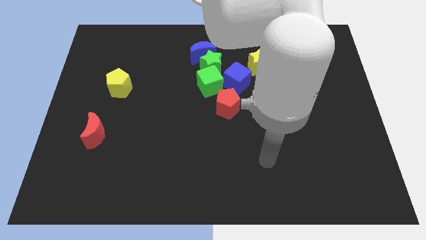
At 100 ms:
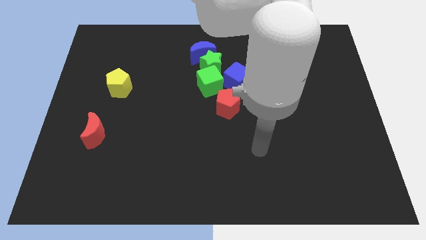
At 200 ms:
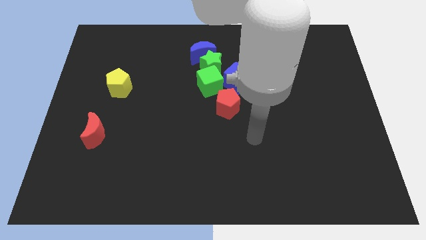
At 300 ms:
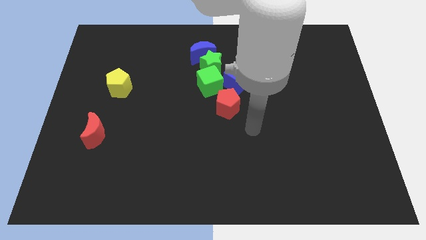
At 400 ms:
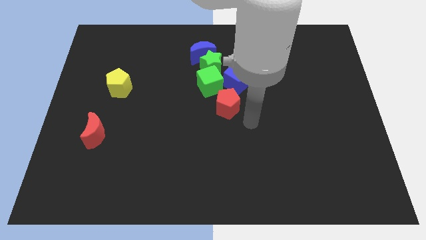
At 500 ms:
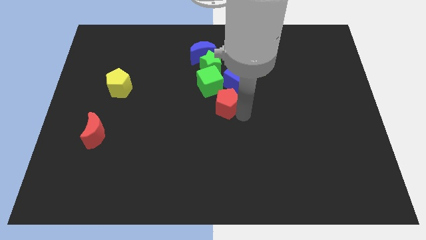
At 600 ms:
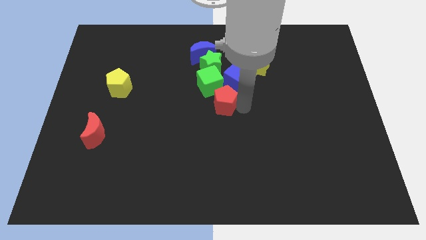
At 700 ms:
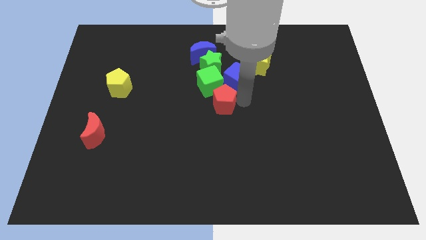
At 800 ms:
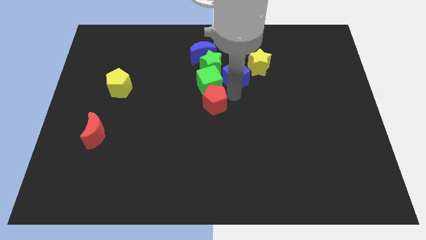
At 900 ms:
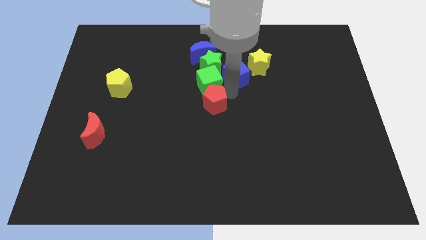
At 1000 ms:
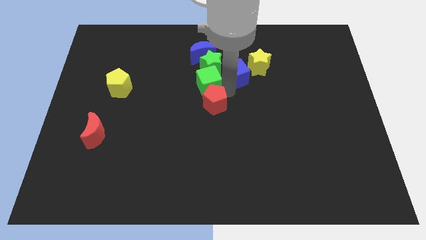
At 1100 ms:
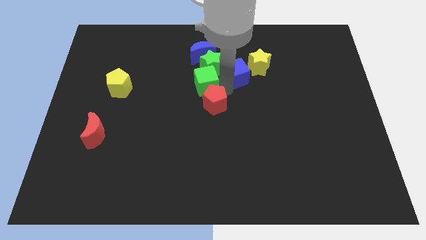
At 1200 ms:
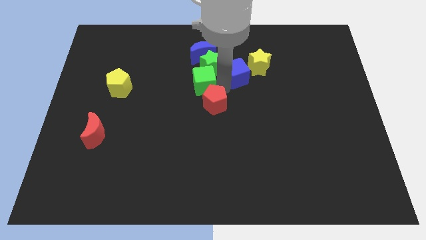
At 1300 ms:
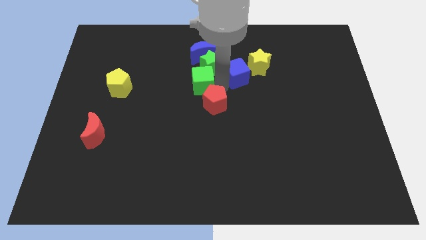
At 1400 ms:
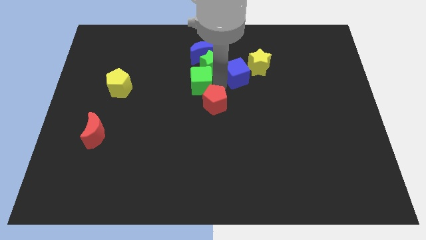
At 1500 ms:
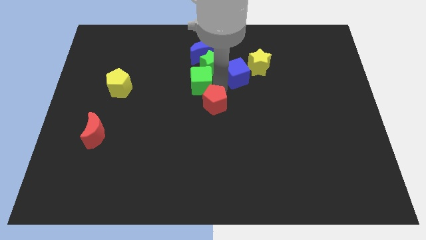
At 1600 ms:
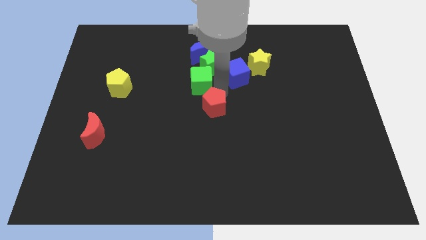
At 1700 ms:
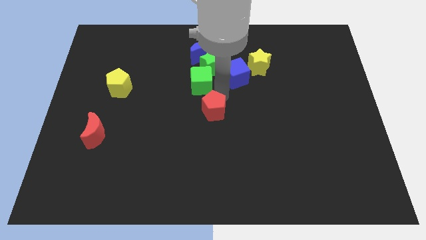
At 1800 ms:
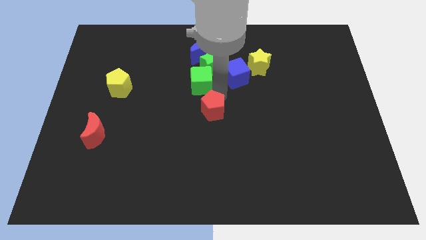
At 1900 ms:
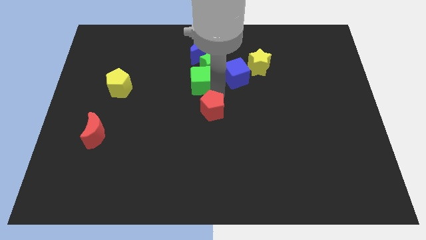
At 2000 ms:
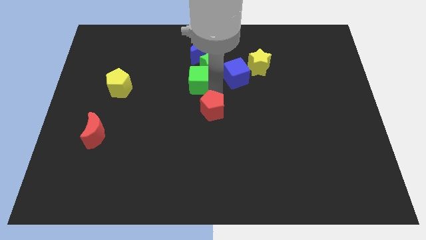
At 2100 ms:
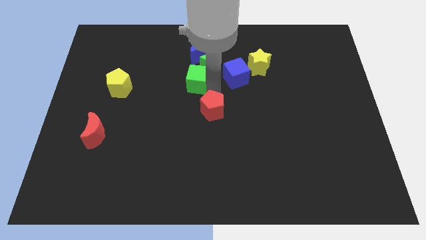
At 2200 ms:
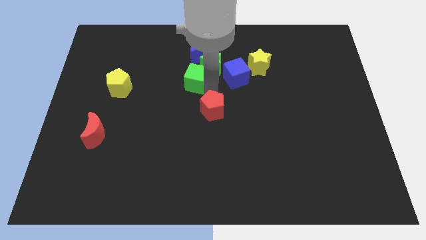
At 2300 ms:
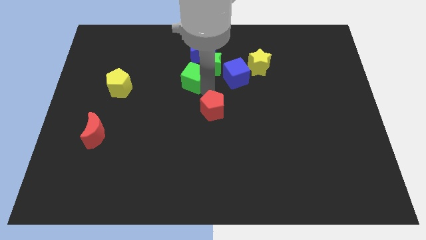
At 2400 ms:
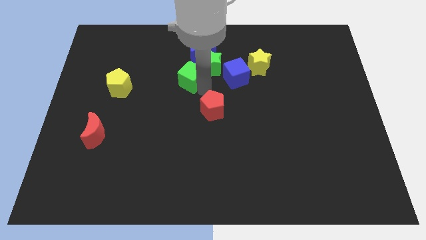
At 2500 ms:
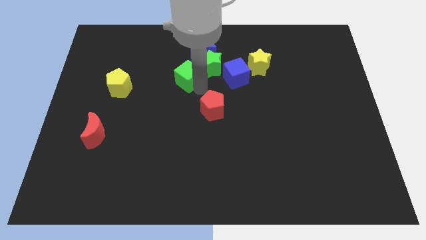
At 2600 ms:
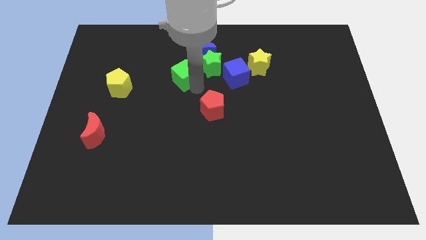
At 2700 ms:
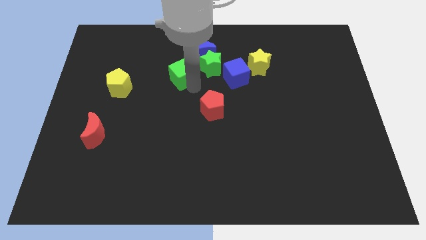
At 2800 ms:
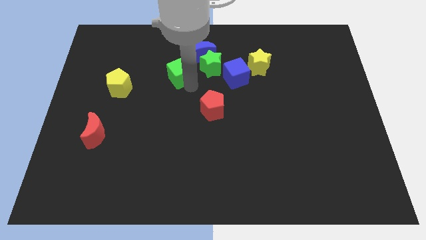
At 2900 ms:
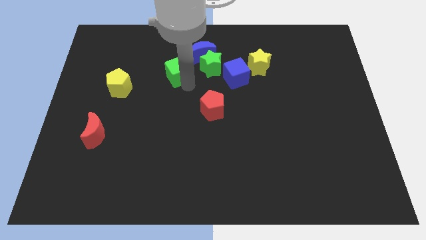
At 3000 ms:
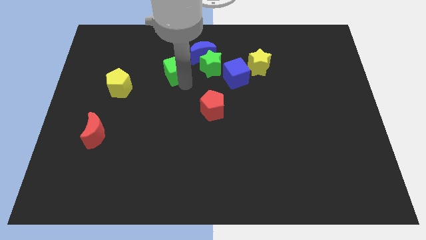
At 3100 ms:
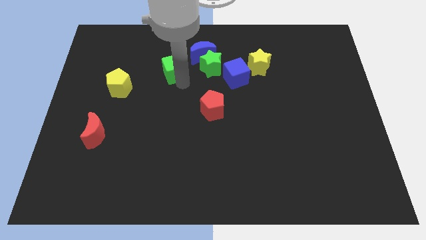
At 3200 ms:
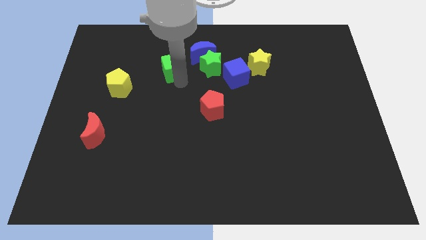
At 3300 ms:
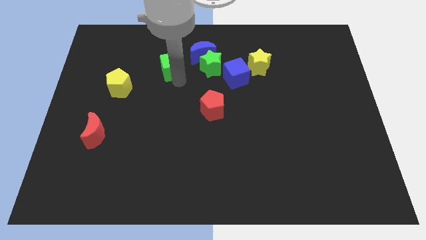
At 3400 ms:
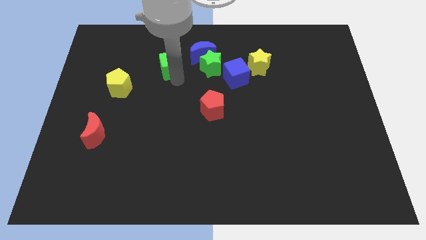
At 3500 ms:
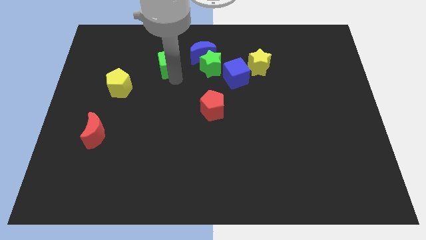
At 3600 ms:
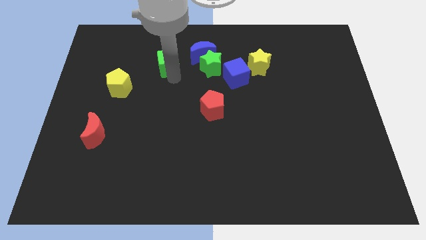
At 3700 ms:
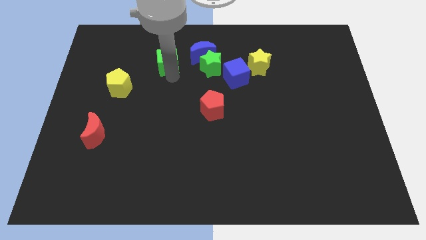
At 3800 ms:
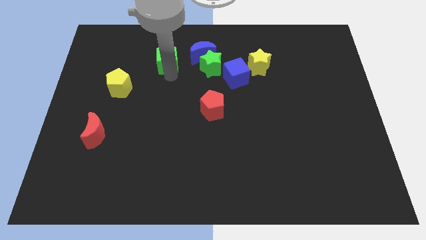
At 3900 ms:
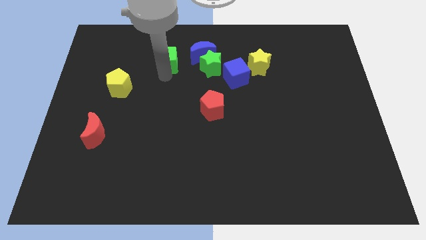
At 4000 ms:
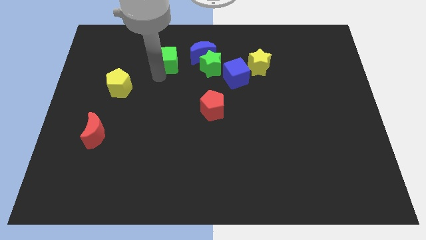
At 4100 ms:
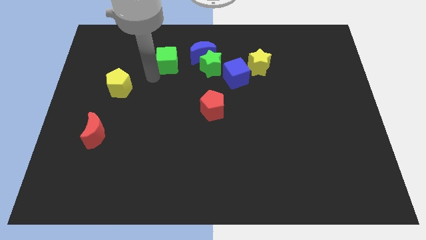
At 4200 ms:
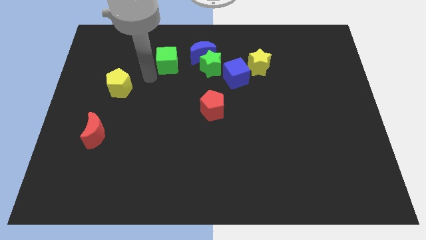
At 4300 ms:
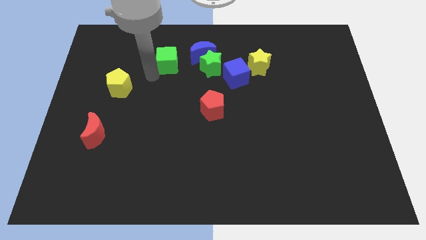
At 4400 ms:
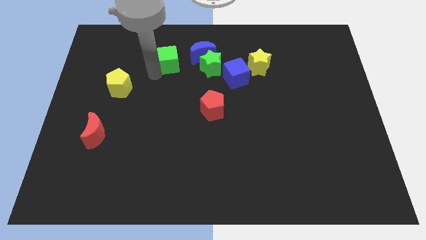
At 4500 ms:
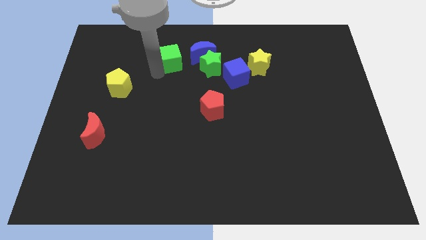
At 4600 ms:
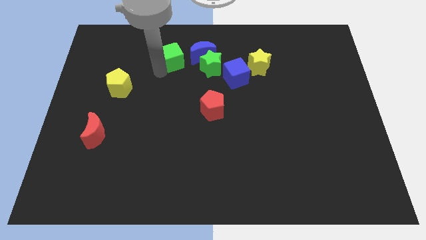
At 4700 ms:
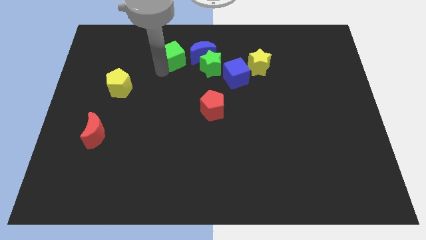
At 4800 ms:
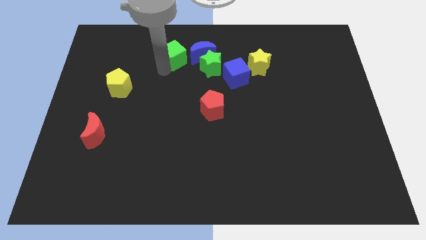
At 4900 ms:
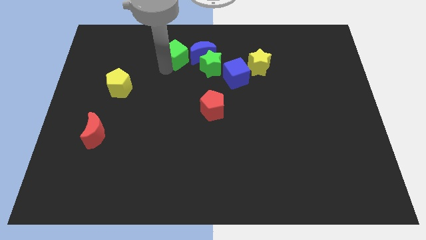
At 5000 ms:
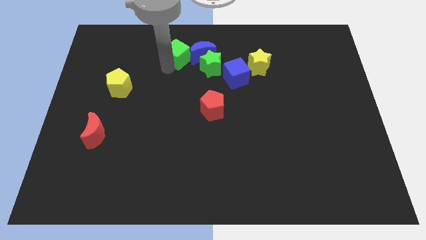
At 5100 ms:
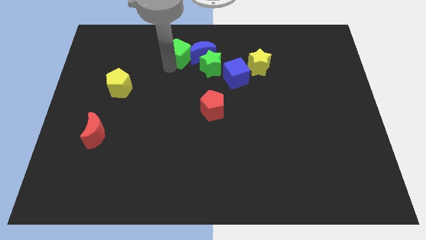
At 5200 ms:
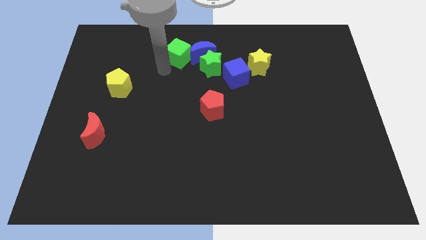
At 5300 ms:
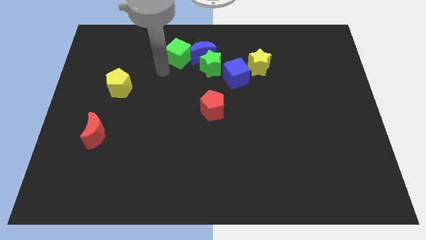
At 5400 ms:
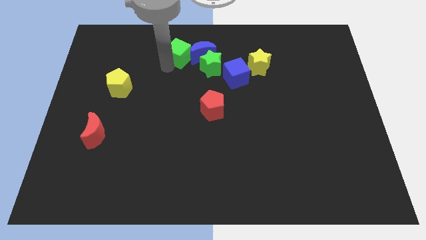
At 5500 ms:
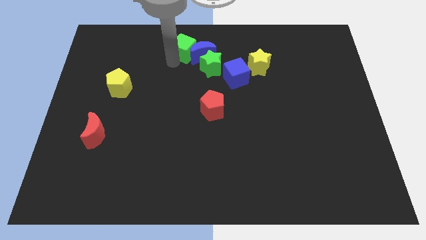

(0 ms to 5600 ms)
push the green cube to the towards your base

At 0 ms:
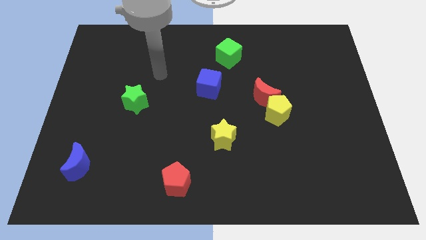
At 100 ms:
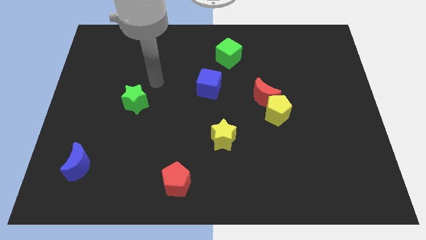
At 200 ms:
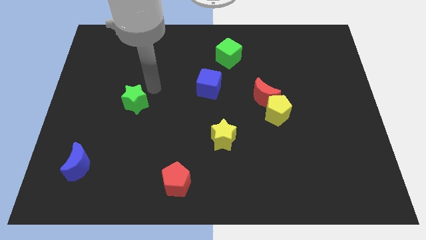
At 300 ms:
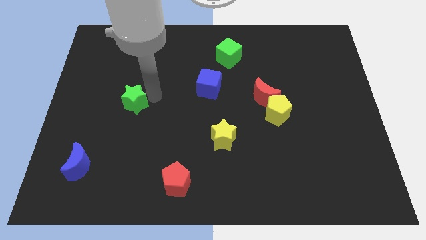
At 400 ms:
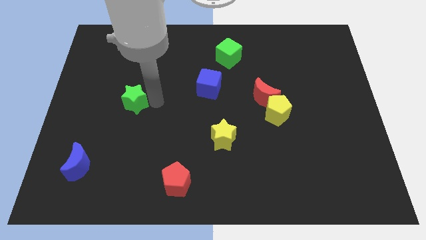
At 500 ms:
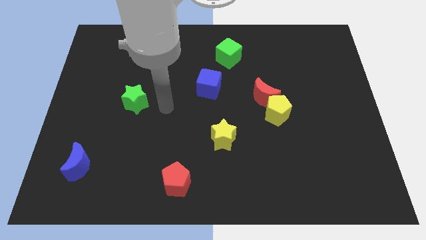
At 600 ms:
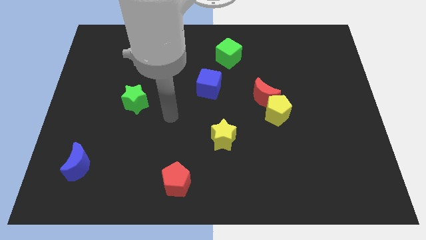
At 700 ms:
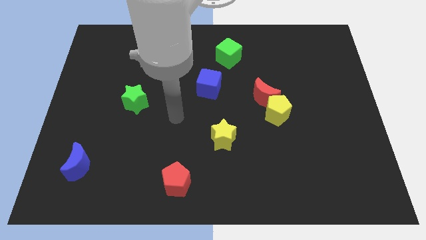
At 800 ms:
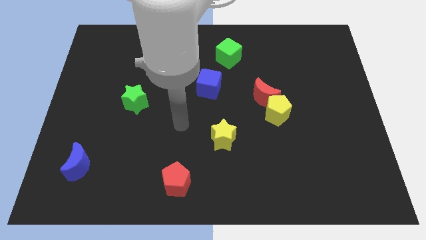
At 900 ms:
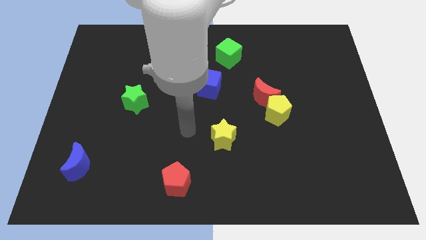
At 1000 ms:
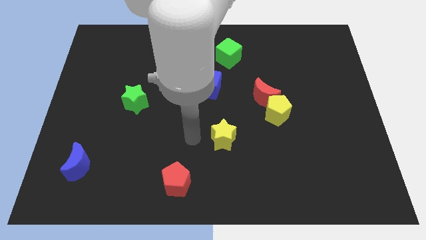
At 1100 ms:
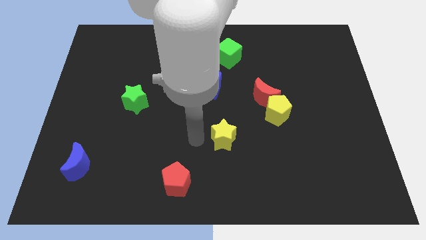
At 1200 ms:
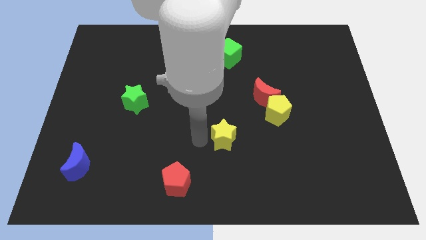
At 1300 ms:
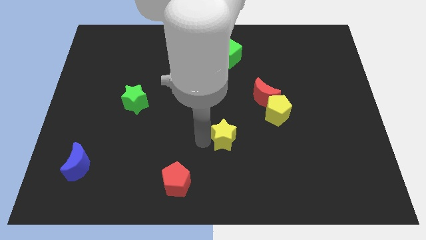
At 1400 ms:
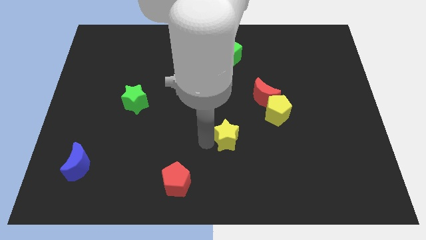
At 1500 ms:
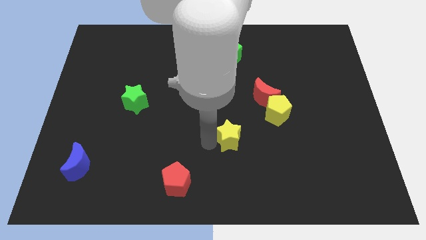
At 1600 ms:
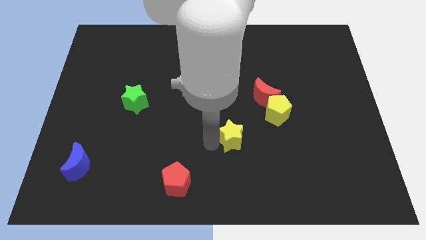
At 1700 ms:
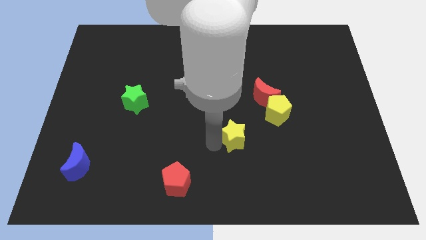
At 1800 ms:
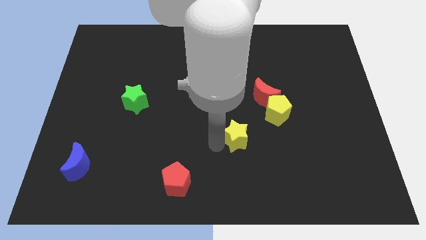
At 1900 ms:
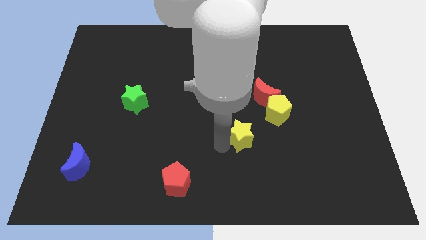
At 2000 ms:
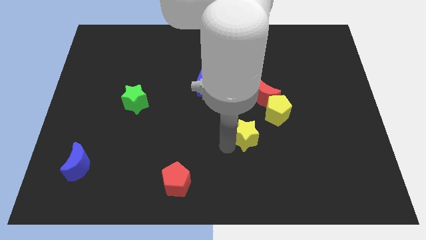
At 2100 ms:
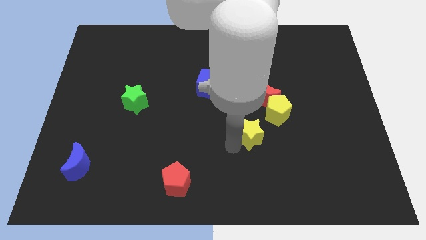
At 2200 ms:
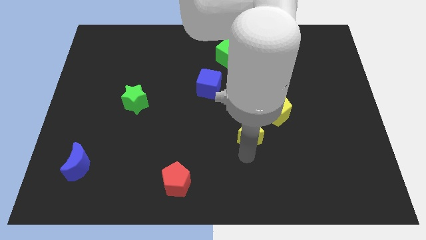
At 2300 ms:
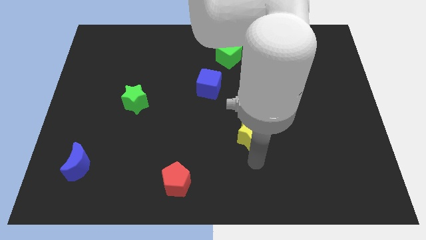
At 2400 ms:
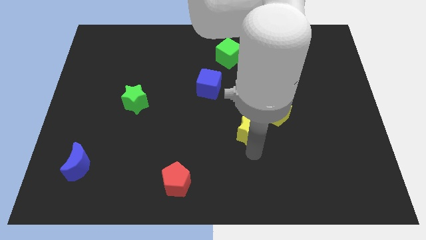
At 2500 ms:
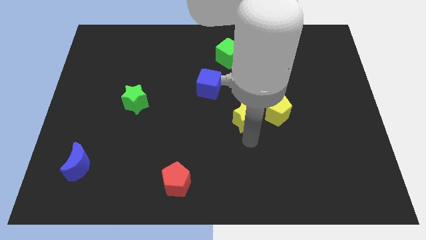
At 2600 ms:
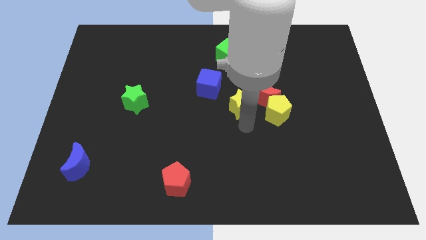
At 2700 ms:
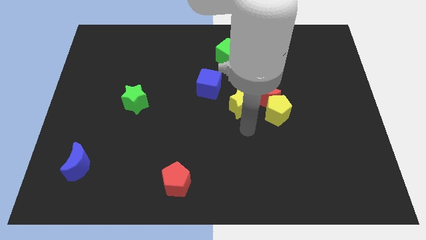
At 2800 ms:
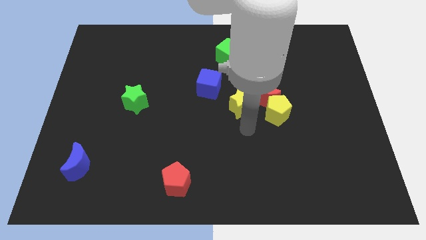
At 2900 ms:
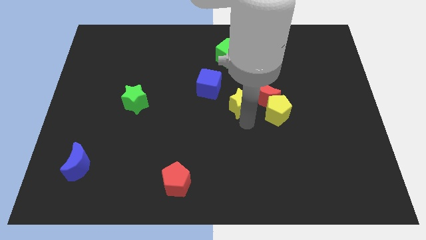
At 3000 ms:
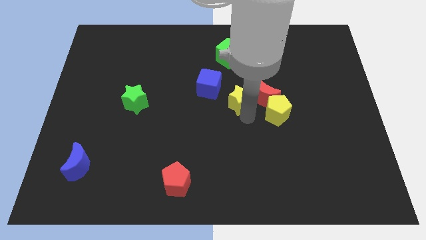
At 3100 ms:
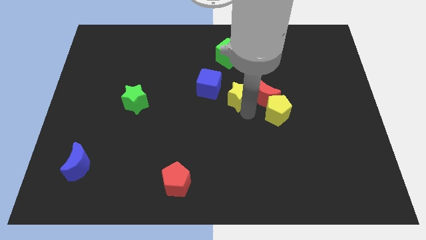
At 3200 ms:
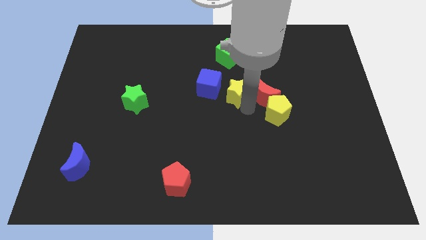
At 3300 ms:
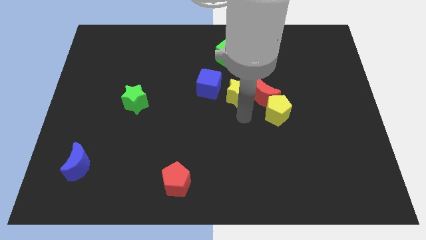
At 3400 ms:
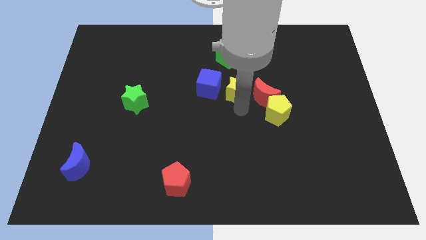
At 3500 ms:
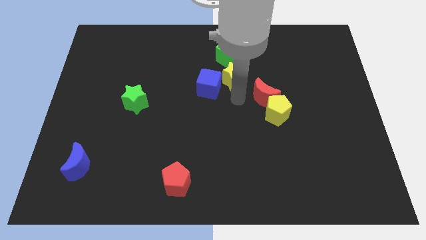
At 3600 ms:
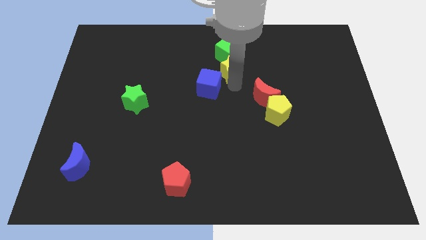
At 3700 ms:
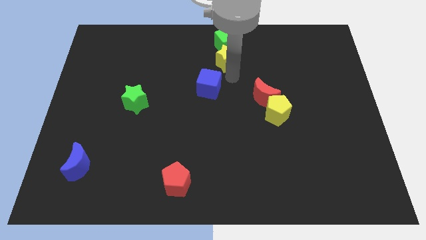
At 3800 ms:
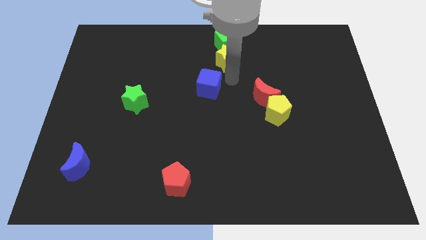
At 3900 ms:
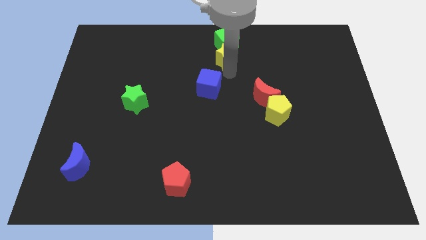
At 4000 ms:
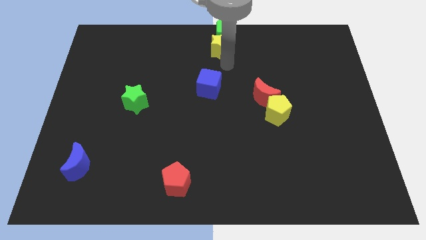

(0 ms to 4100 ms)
slide the yellow star to the towards your base
